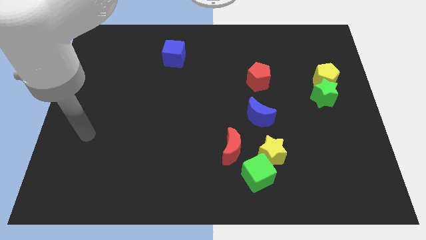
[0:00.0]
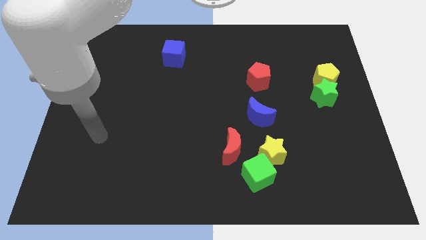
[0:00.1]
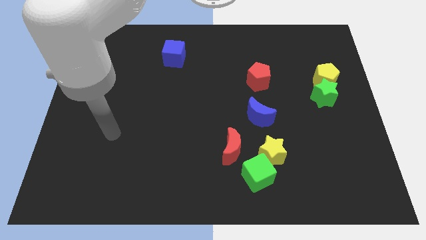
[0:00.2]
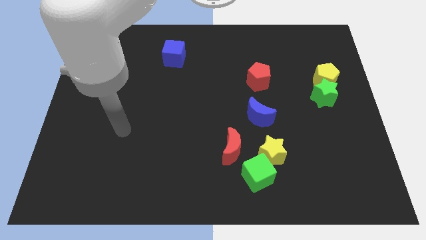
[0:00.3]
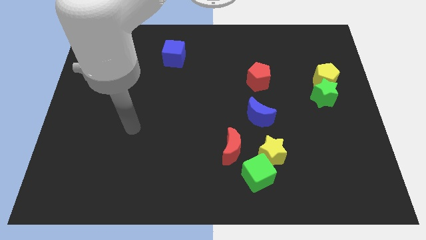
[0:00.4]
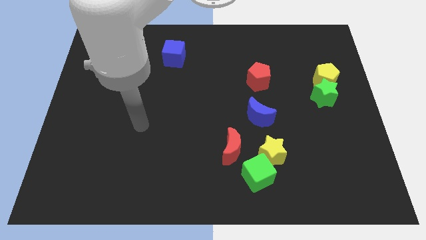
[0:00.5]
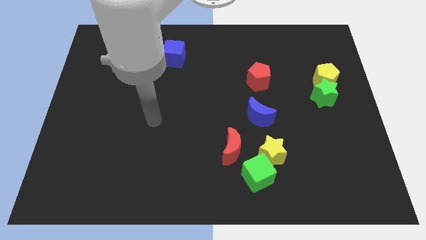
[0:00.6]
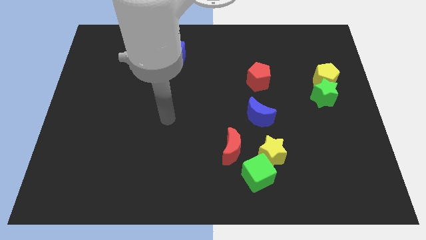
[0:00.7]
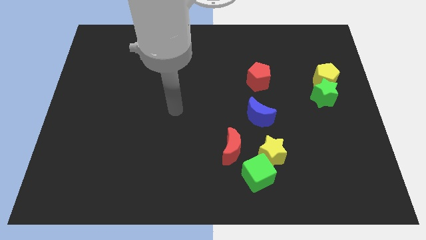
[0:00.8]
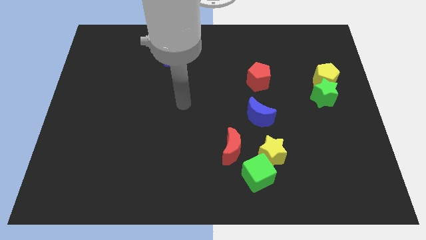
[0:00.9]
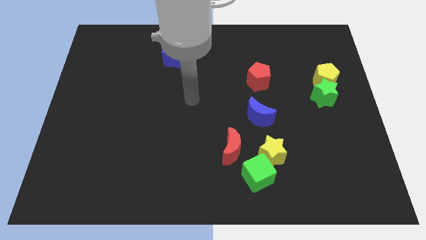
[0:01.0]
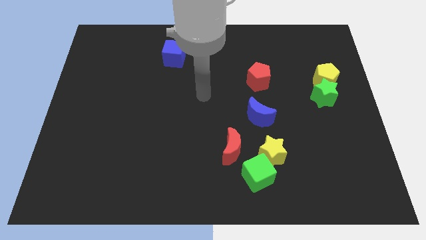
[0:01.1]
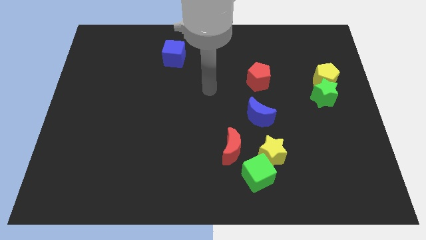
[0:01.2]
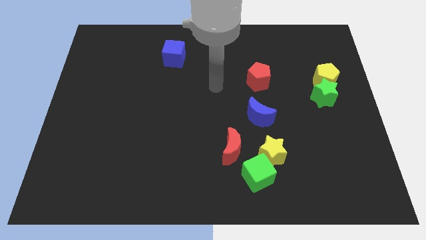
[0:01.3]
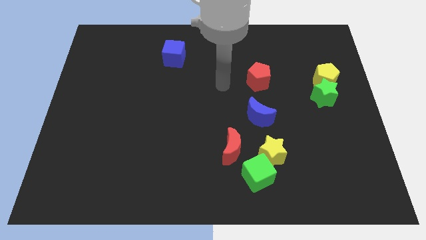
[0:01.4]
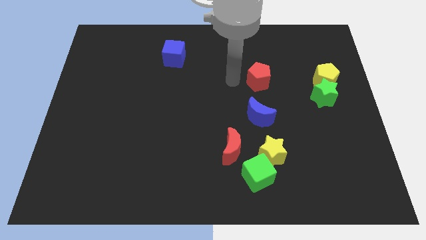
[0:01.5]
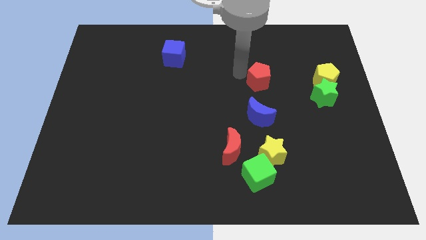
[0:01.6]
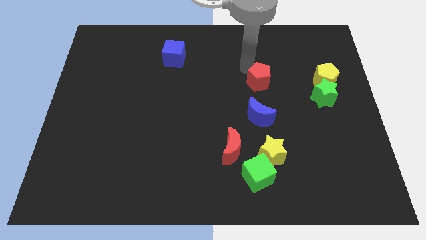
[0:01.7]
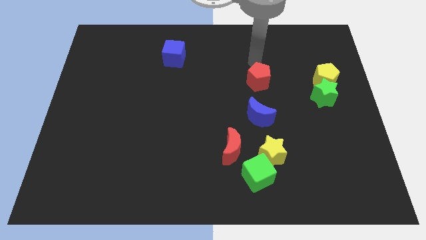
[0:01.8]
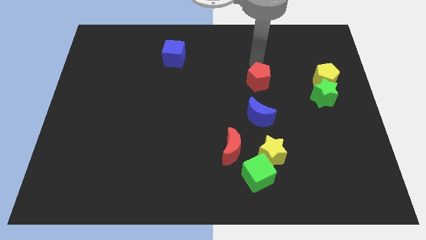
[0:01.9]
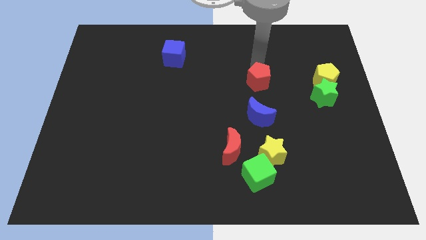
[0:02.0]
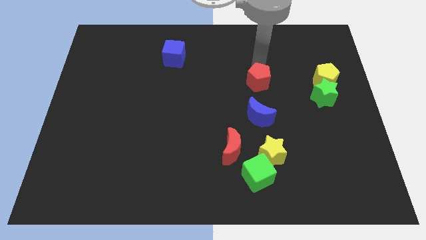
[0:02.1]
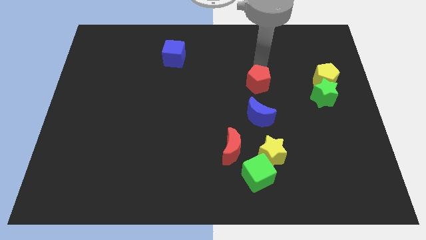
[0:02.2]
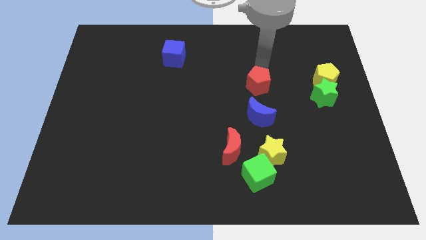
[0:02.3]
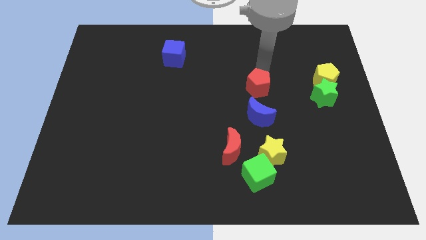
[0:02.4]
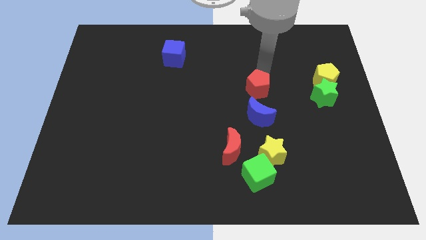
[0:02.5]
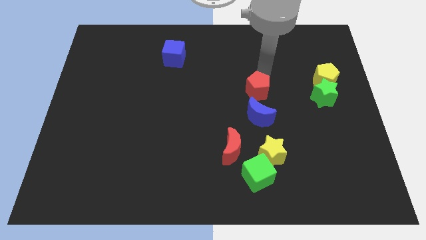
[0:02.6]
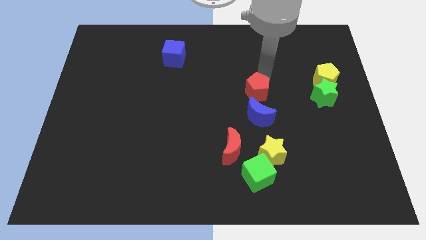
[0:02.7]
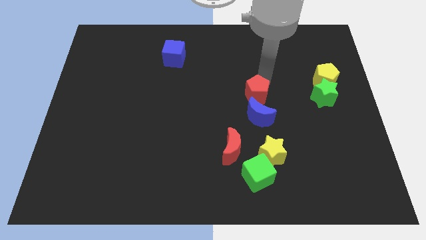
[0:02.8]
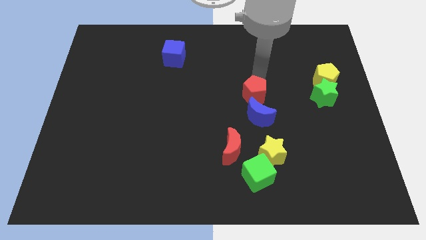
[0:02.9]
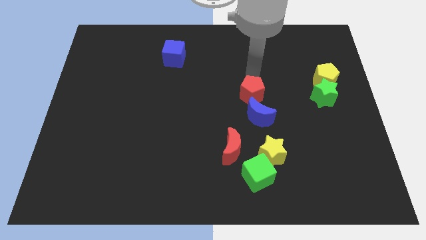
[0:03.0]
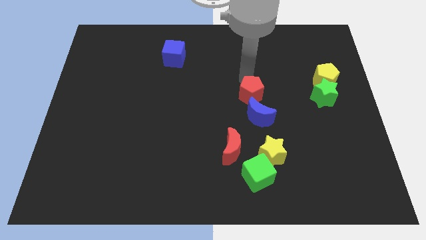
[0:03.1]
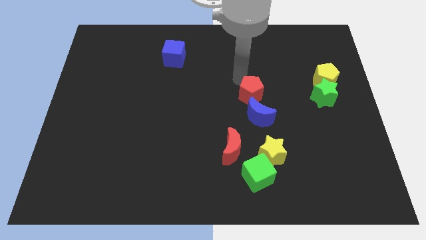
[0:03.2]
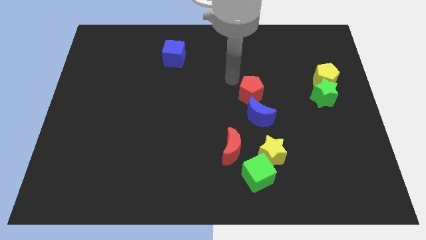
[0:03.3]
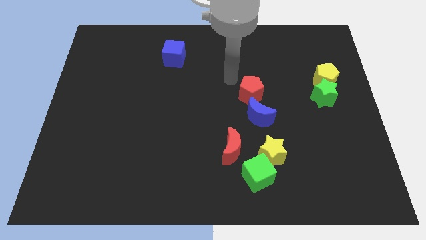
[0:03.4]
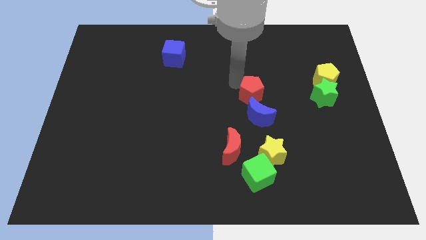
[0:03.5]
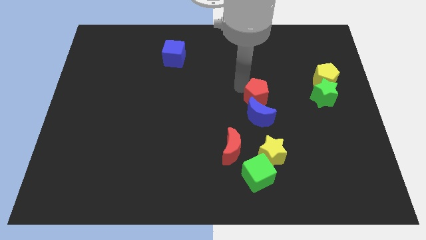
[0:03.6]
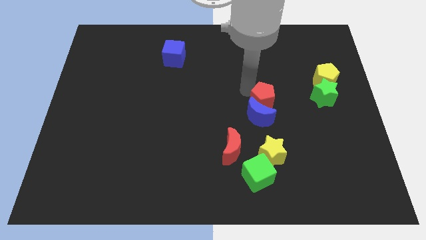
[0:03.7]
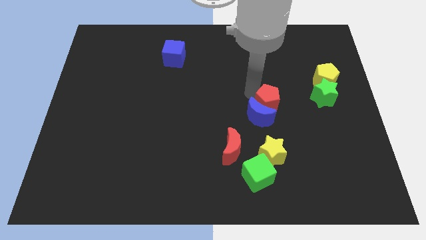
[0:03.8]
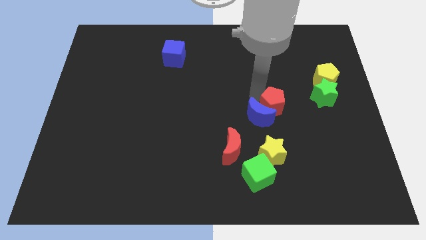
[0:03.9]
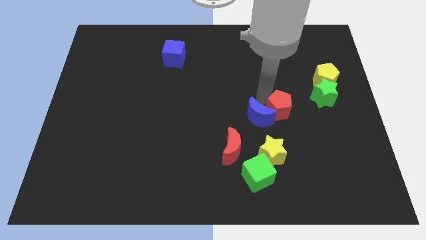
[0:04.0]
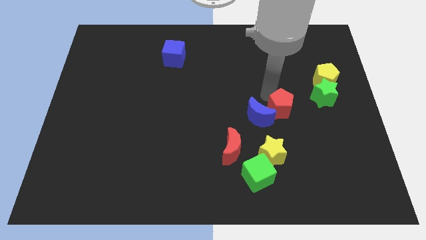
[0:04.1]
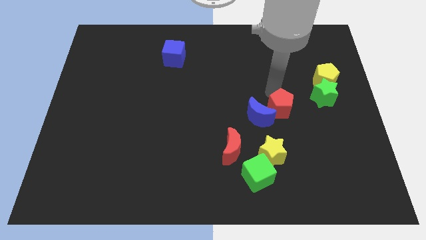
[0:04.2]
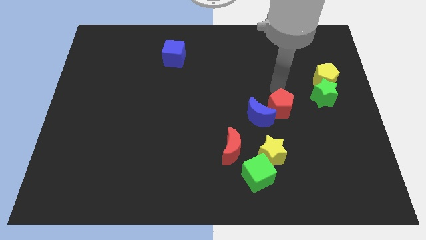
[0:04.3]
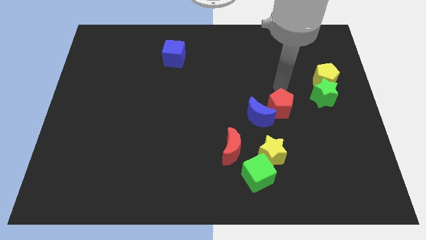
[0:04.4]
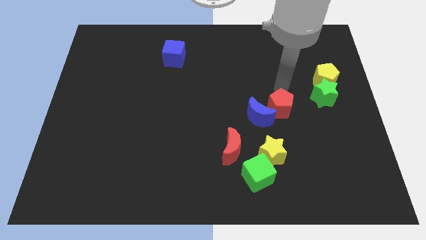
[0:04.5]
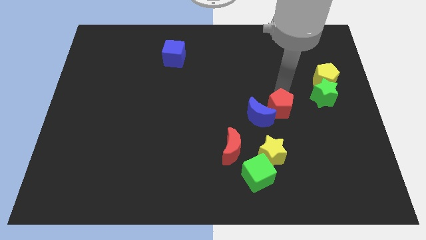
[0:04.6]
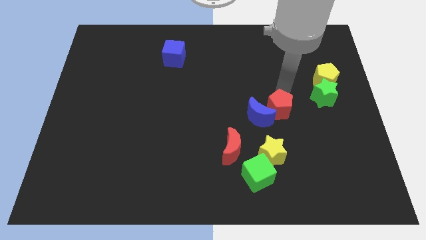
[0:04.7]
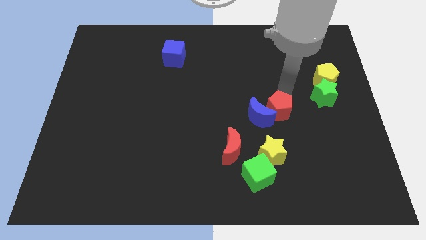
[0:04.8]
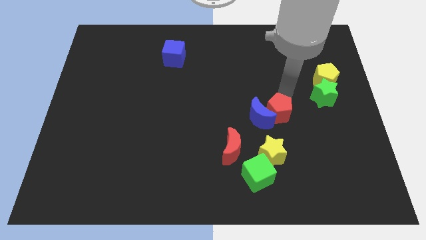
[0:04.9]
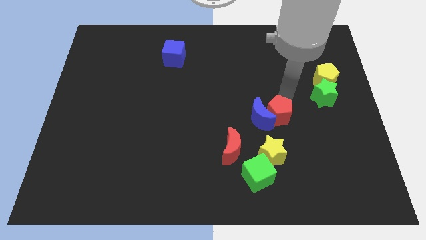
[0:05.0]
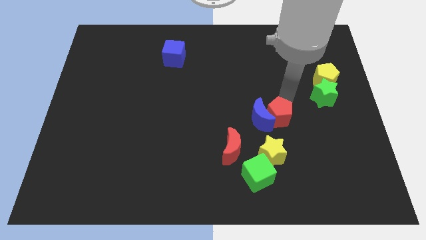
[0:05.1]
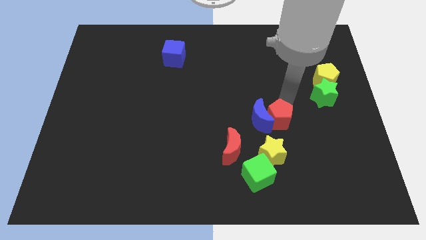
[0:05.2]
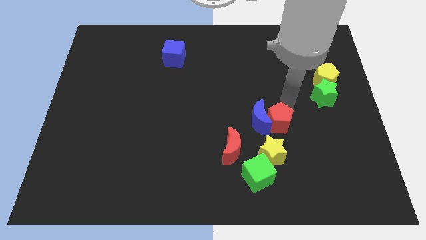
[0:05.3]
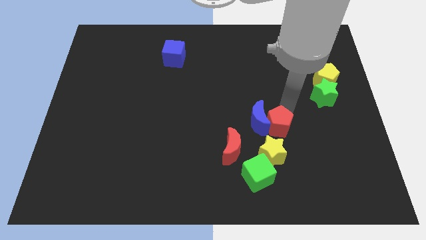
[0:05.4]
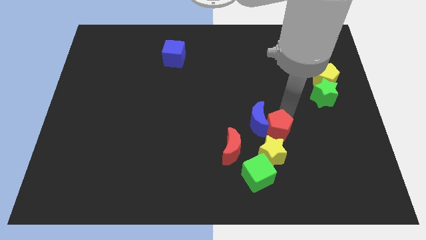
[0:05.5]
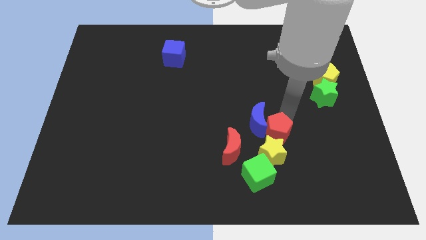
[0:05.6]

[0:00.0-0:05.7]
move the red pentagon next to the yellow star

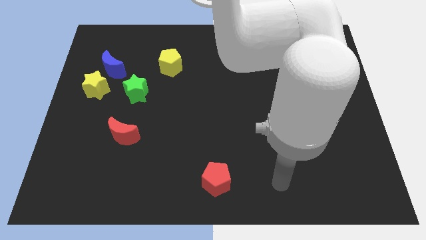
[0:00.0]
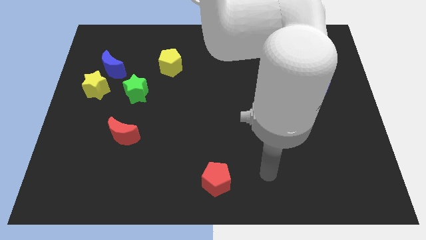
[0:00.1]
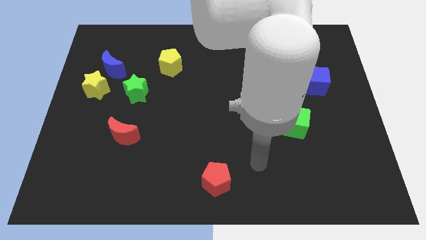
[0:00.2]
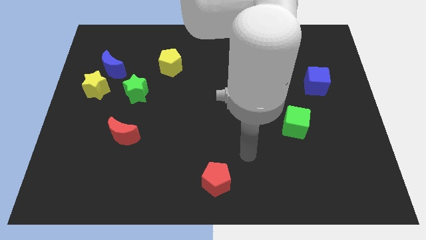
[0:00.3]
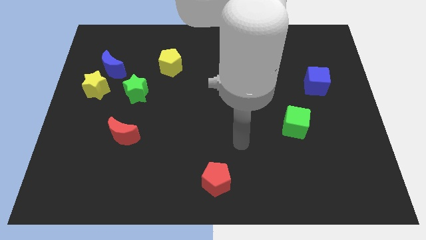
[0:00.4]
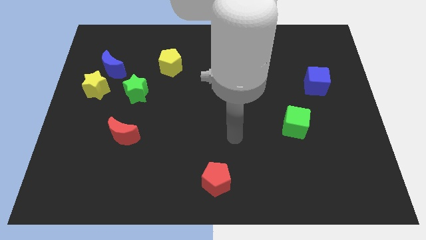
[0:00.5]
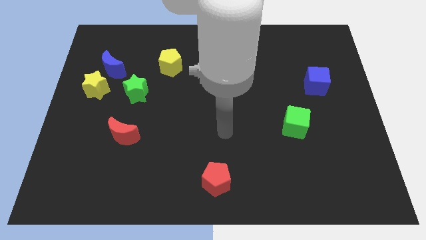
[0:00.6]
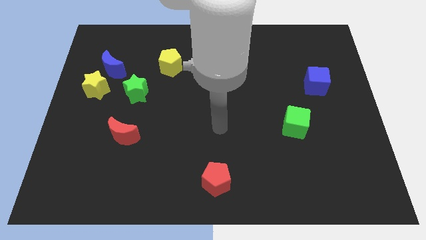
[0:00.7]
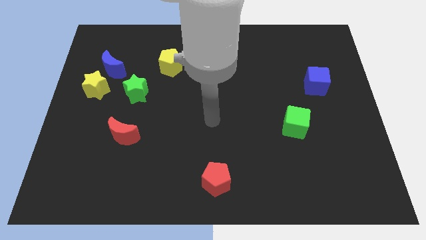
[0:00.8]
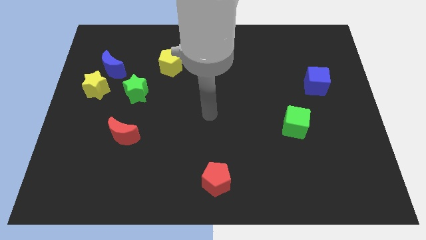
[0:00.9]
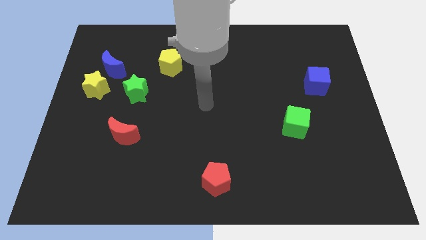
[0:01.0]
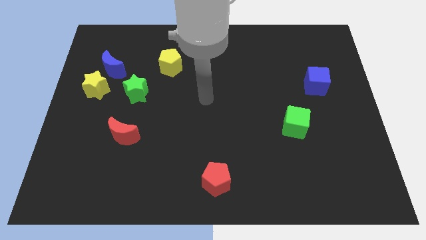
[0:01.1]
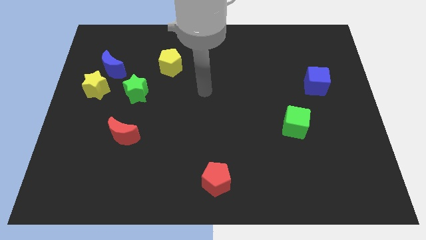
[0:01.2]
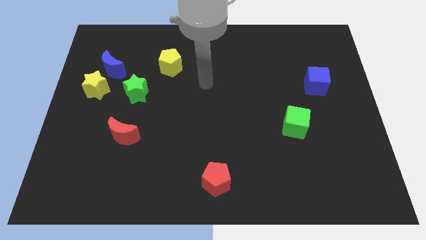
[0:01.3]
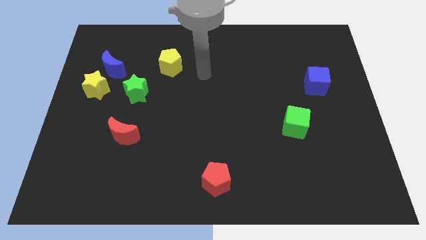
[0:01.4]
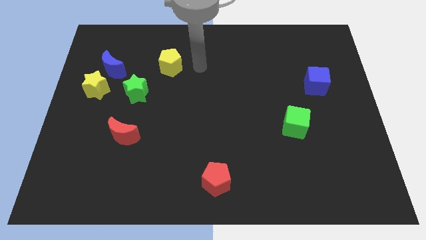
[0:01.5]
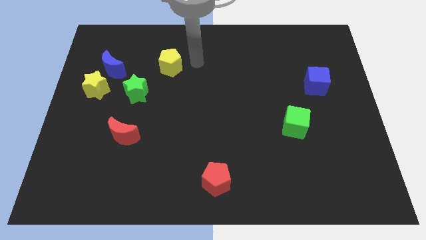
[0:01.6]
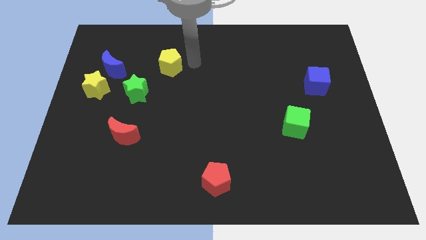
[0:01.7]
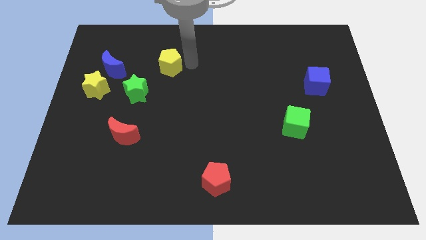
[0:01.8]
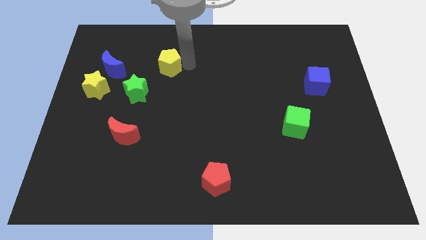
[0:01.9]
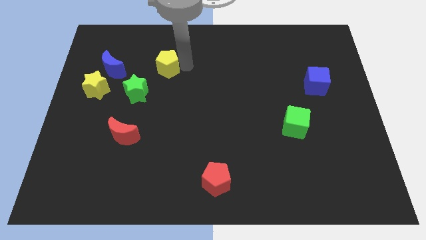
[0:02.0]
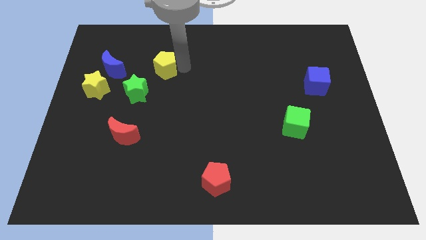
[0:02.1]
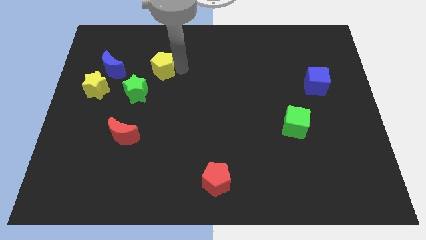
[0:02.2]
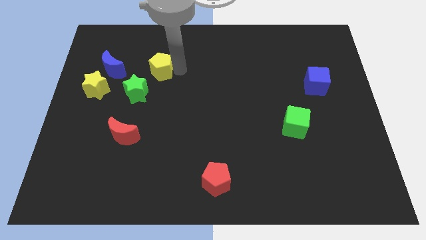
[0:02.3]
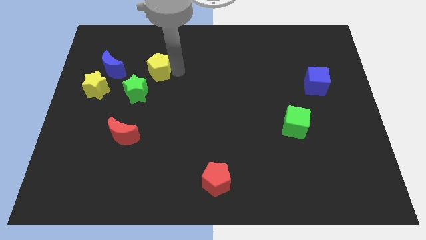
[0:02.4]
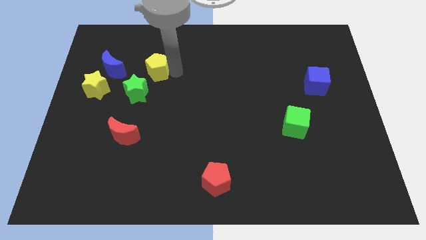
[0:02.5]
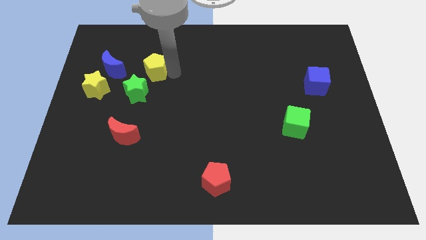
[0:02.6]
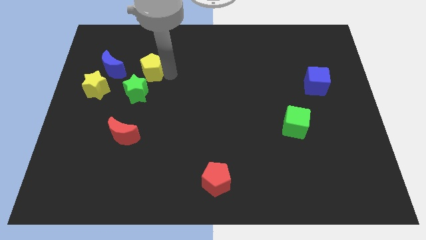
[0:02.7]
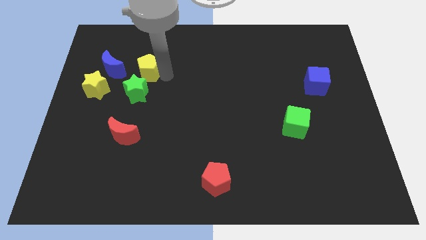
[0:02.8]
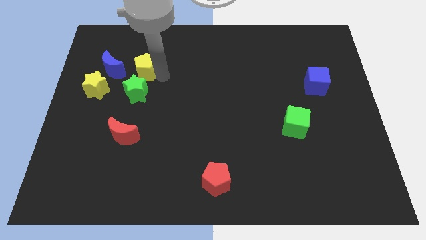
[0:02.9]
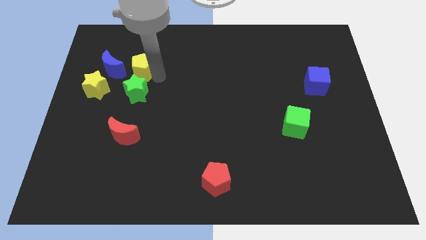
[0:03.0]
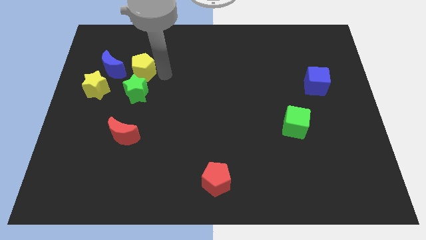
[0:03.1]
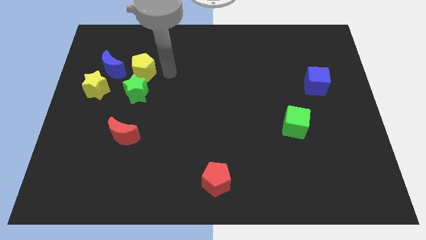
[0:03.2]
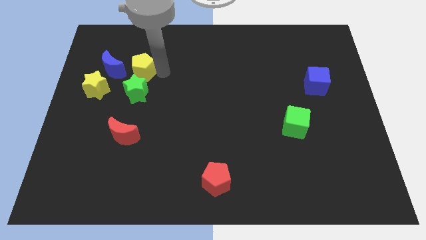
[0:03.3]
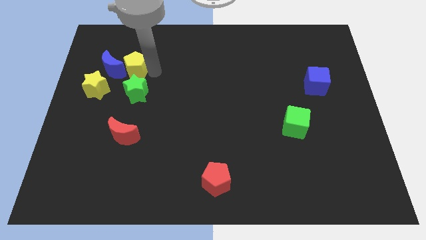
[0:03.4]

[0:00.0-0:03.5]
move the yellow pentagon next to the blue moon
